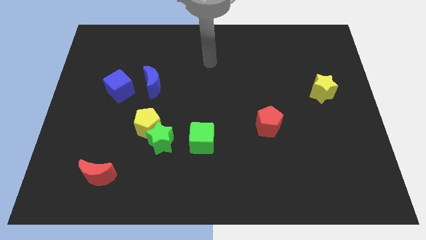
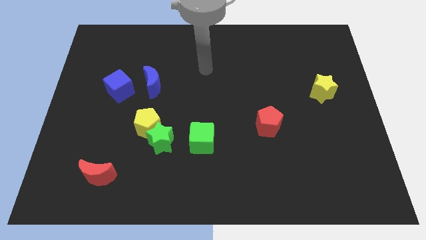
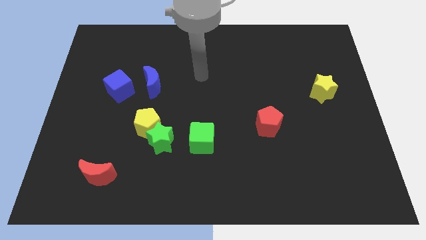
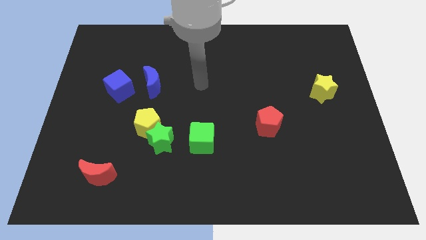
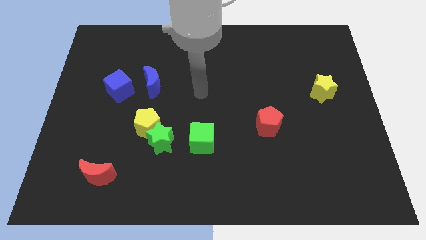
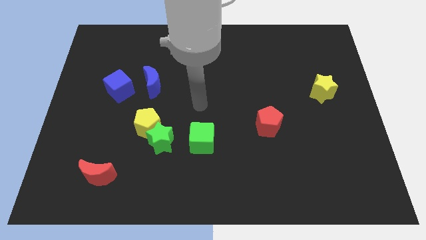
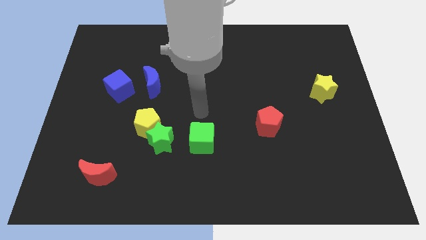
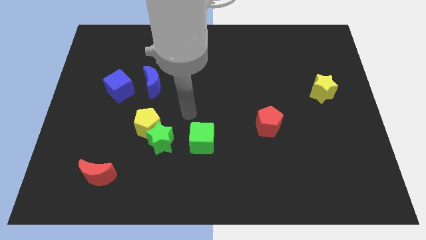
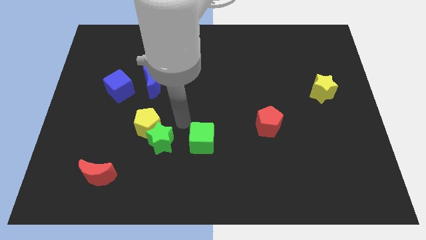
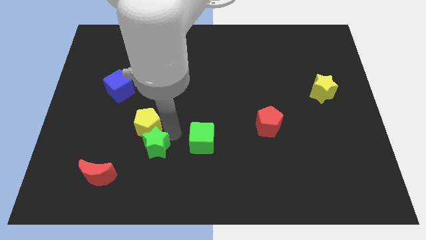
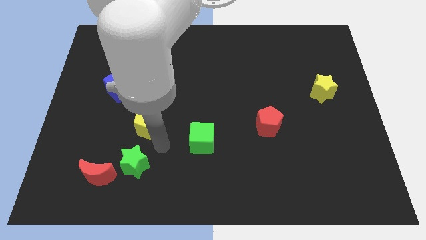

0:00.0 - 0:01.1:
move the yellow pentagon away from the green star

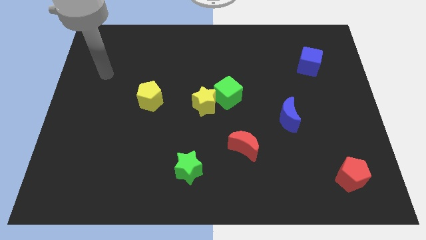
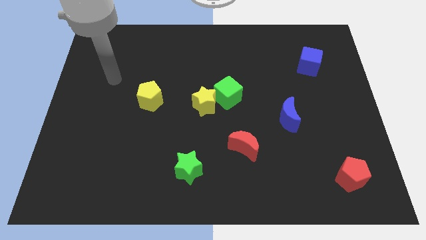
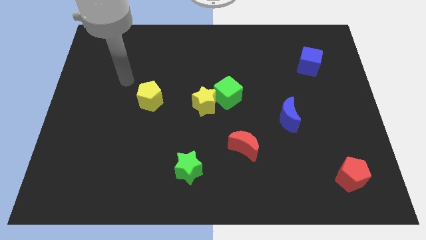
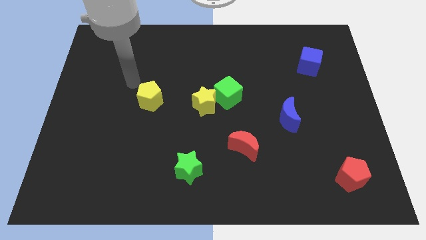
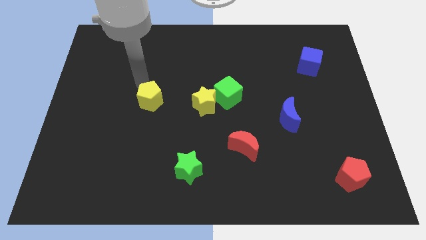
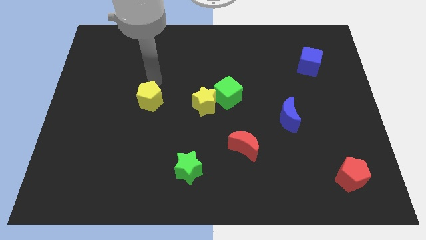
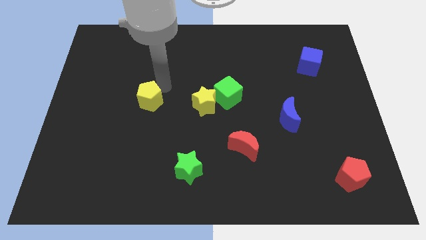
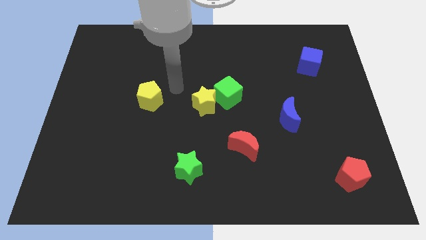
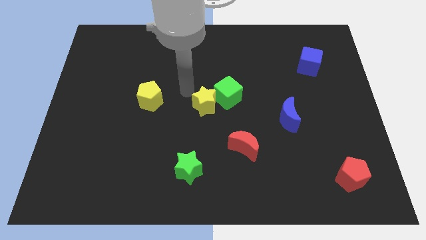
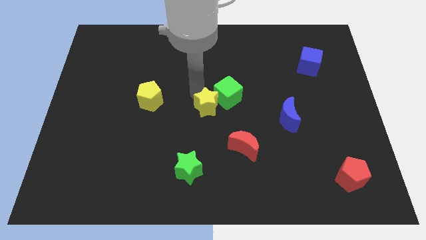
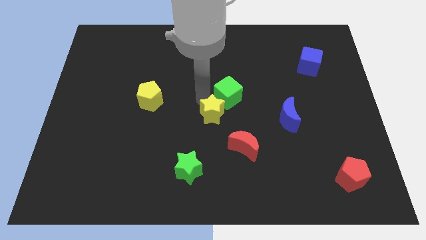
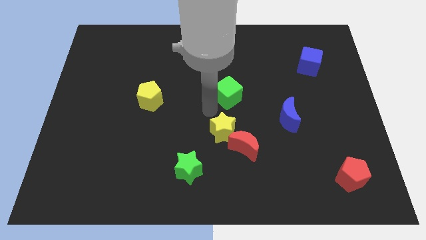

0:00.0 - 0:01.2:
move the green cube away from the yellow star

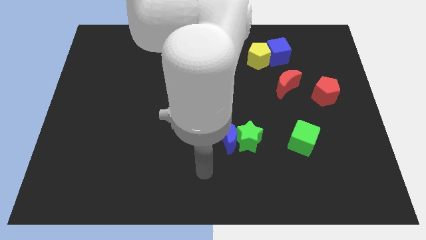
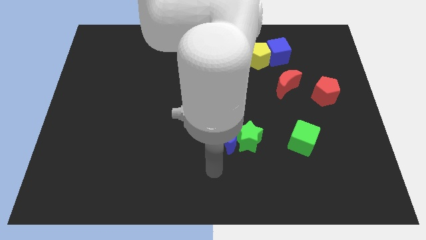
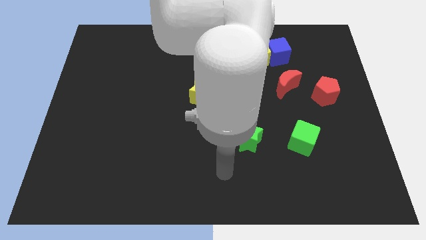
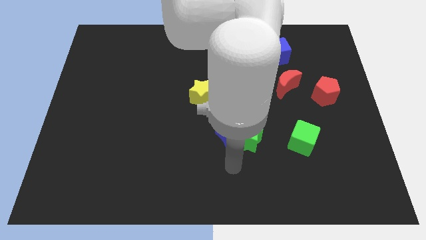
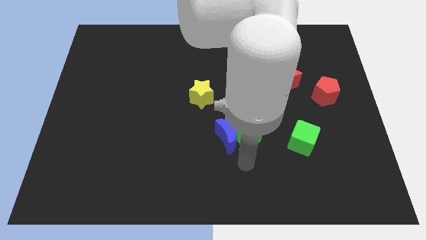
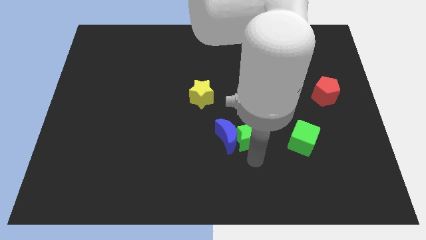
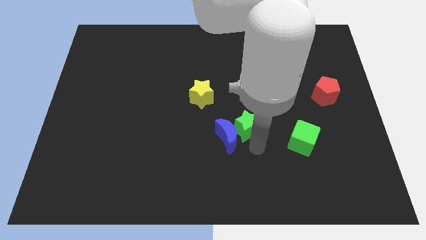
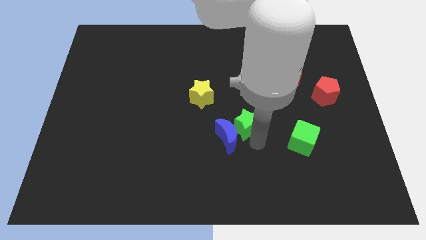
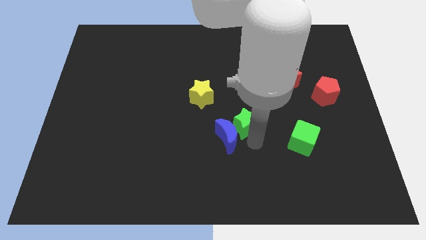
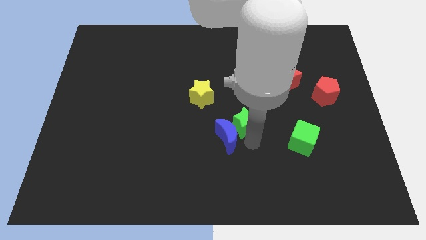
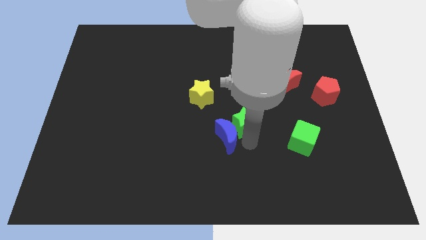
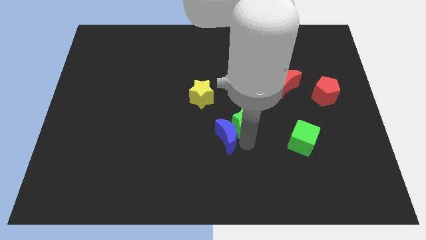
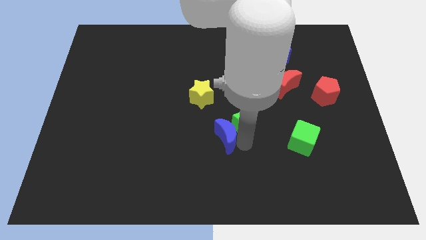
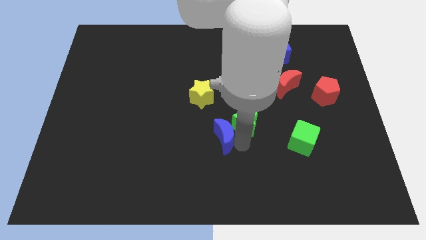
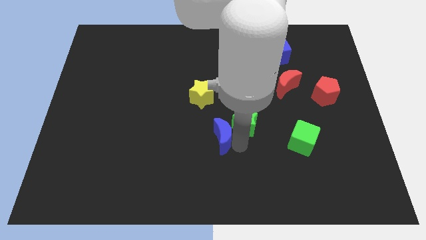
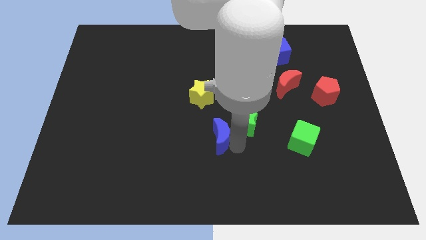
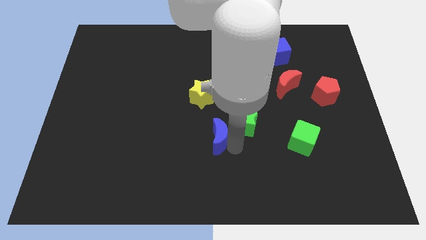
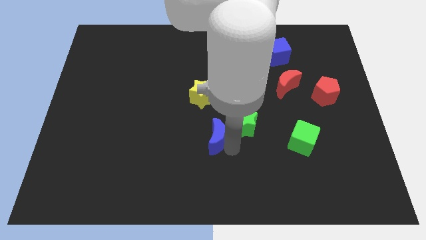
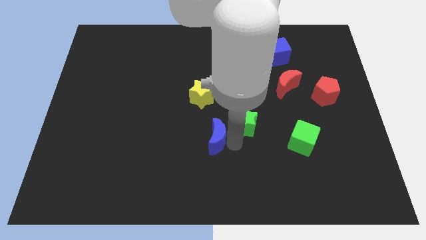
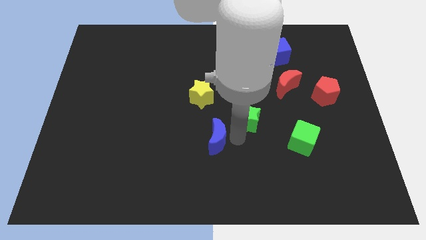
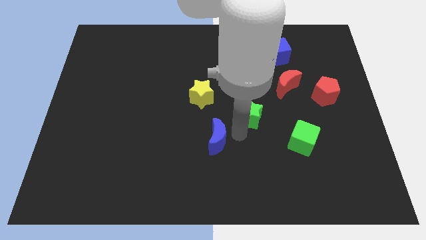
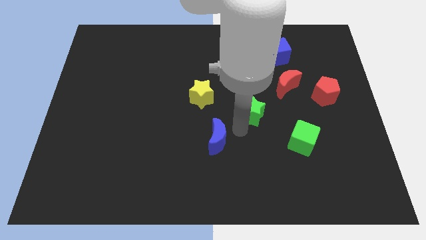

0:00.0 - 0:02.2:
pull the blue moon apart from the green star

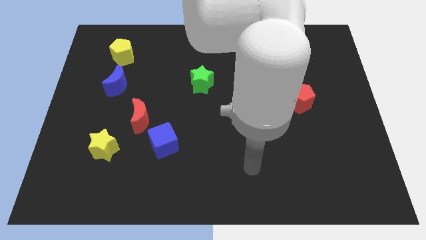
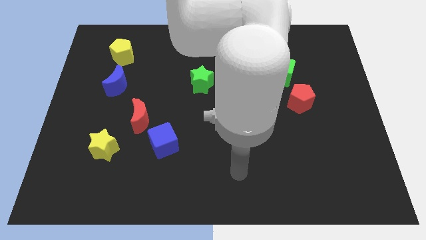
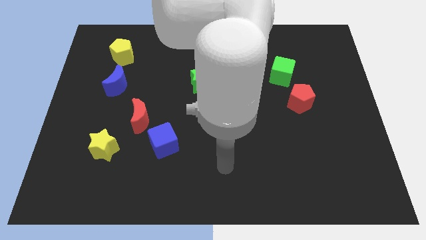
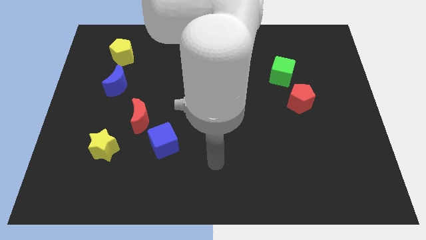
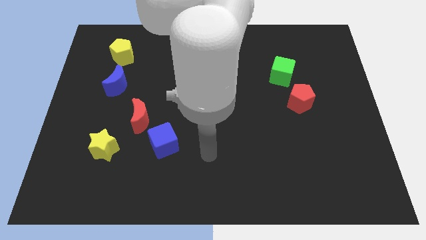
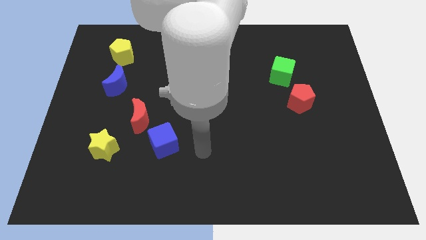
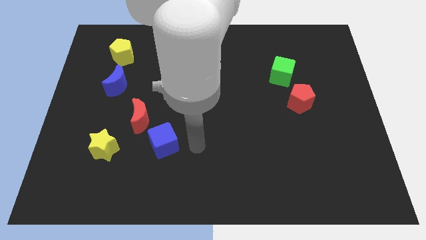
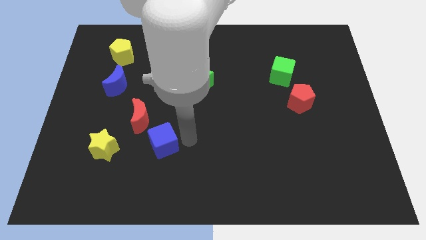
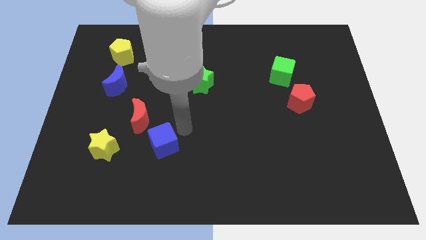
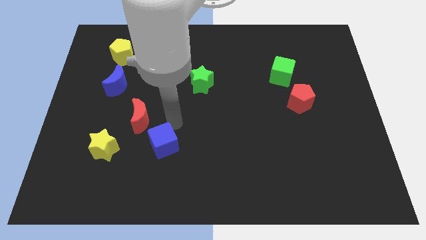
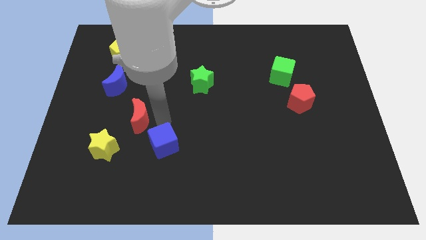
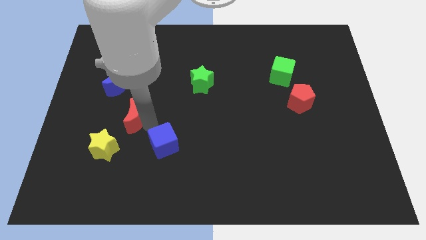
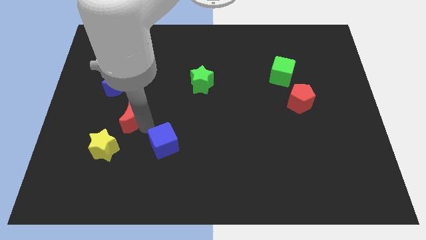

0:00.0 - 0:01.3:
pull the blue cube apart from the red moon

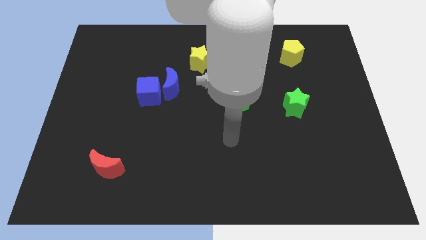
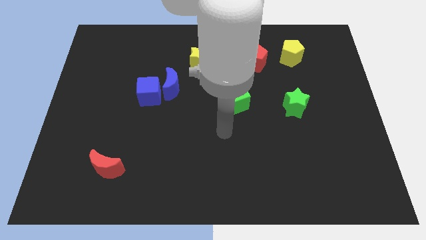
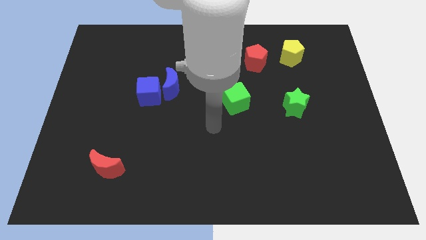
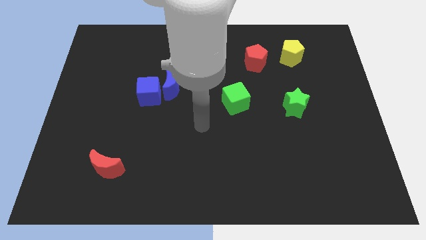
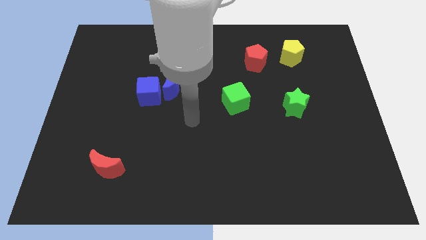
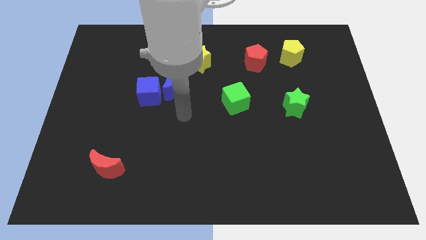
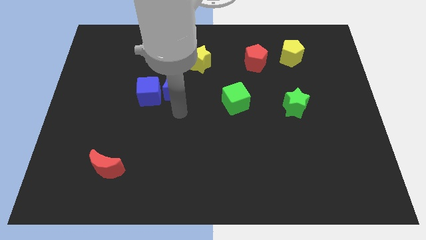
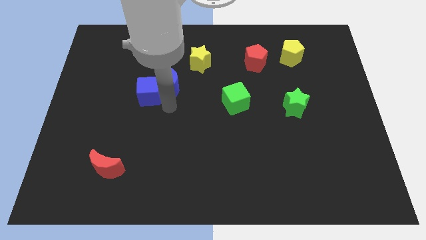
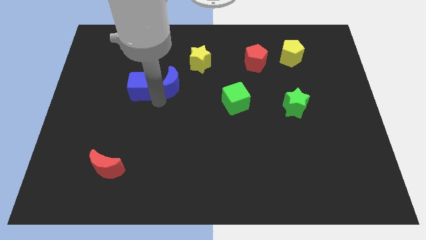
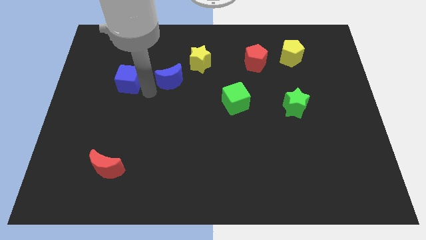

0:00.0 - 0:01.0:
separate the blue moon from the blue cube

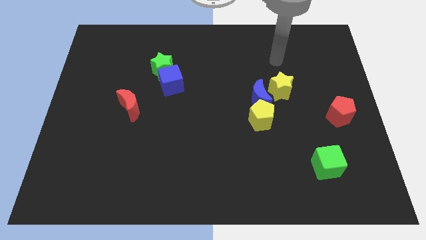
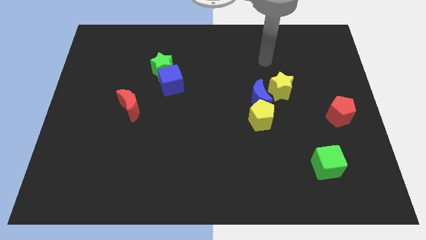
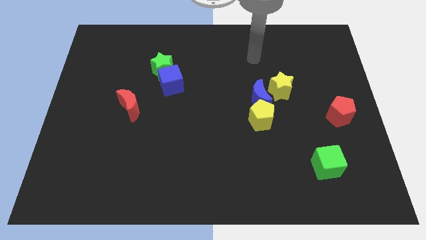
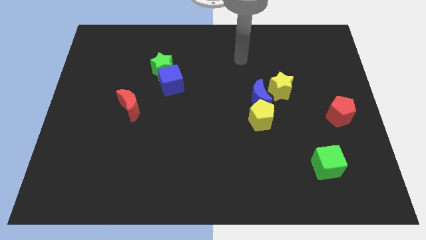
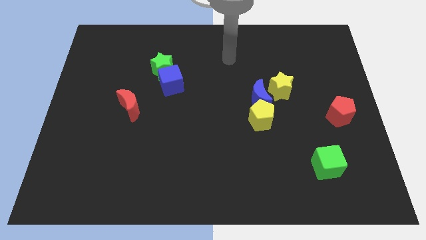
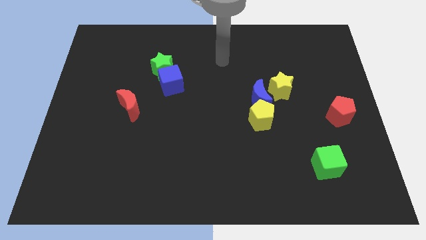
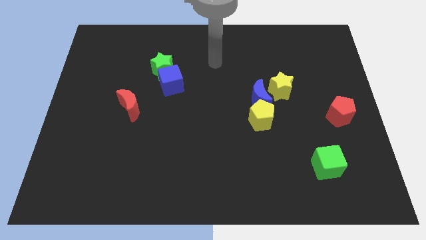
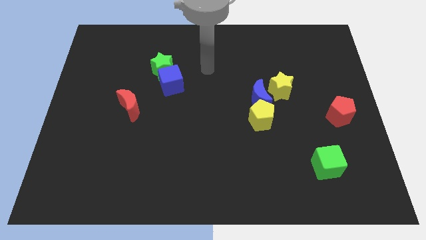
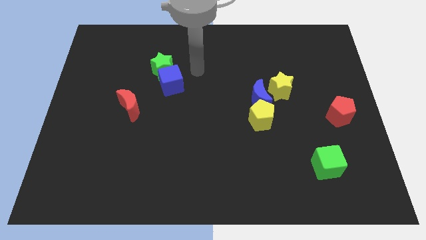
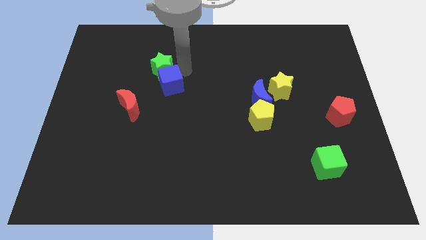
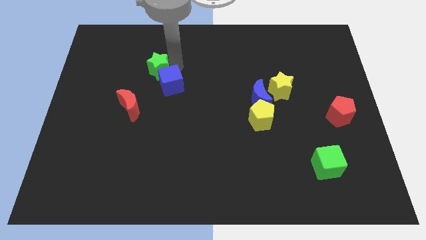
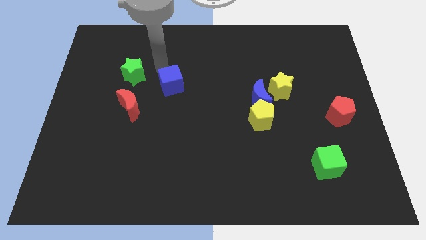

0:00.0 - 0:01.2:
separate the blue cube from the green star

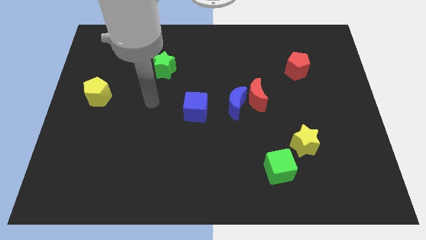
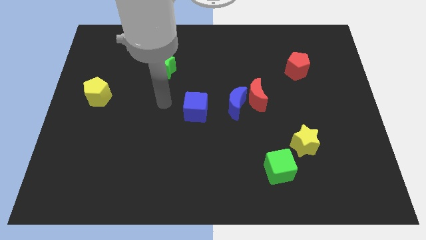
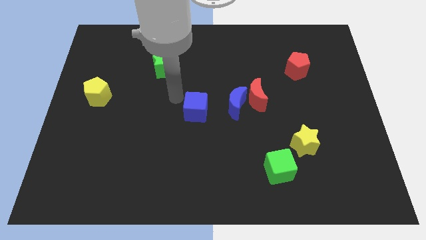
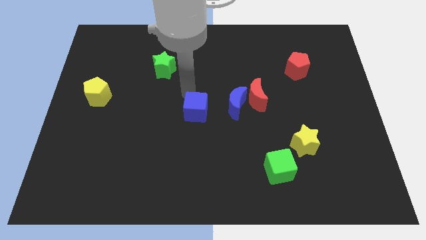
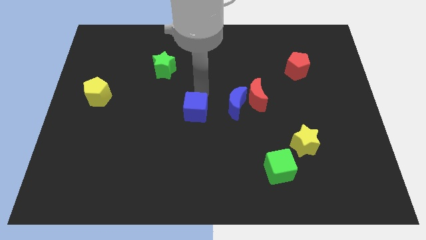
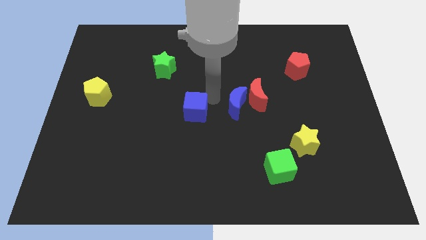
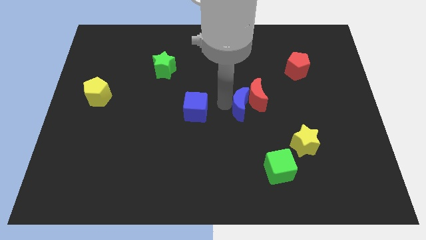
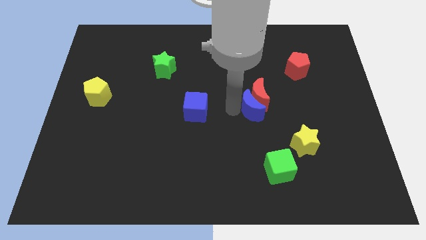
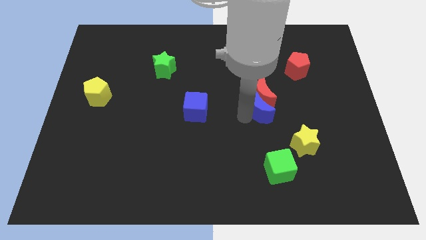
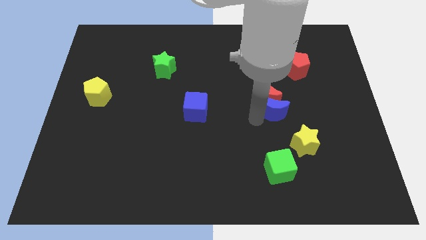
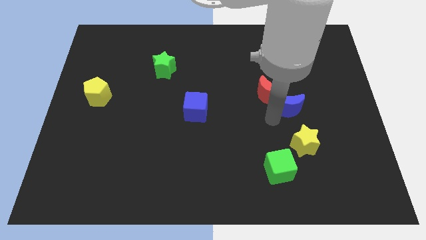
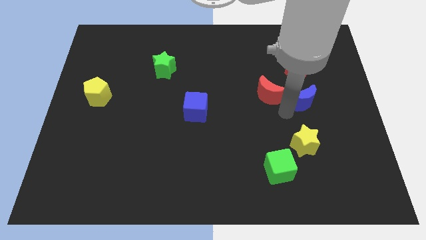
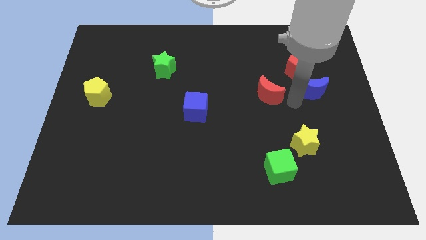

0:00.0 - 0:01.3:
pull the red moon apart from the blue moon

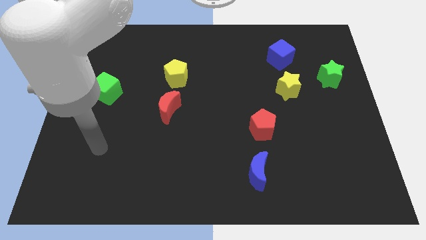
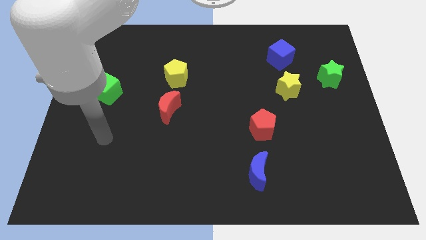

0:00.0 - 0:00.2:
move the red moon away from the yellow pentagon

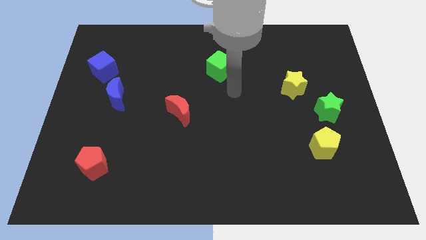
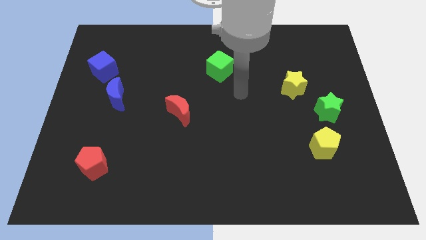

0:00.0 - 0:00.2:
pull the yellow pentagon apart from the green star
